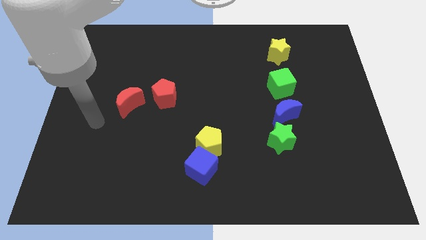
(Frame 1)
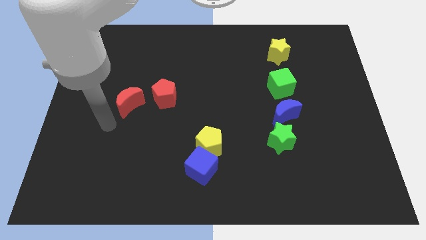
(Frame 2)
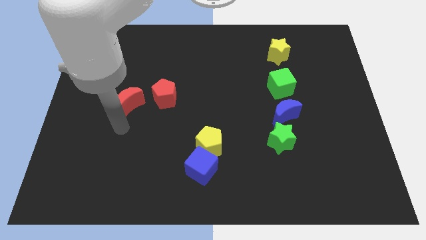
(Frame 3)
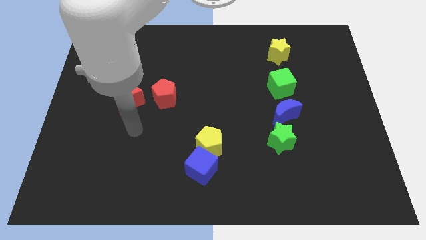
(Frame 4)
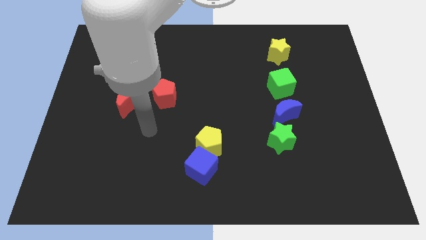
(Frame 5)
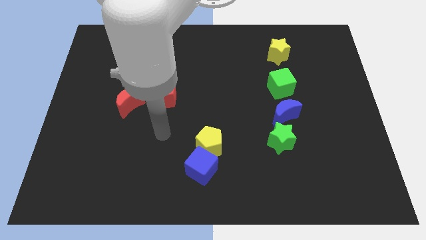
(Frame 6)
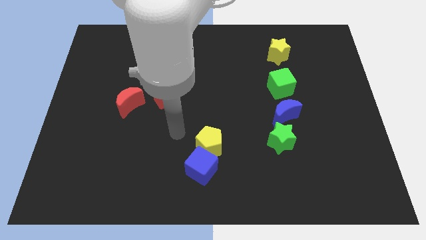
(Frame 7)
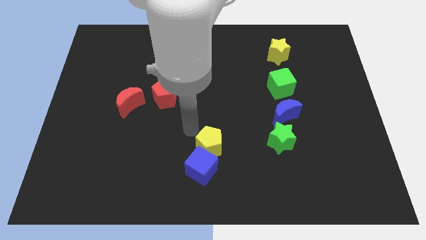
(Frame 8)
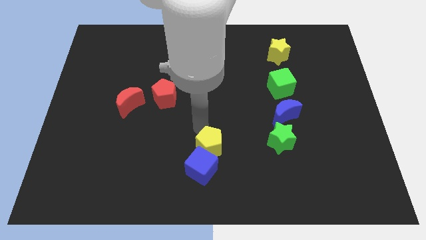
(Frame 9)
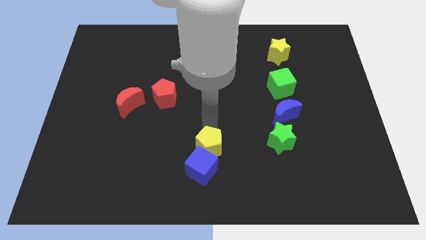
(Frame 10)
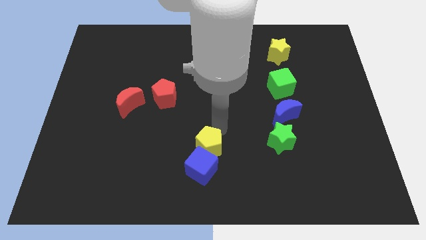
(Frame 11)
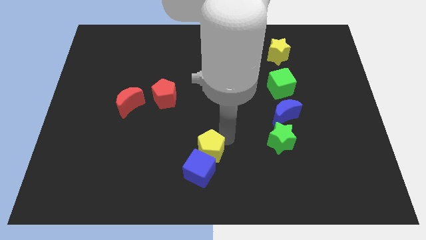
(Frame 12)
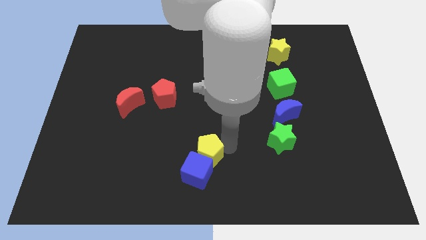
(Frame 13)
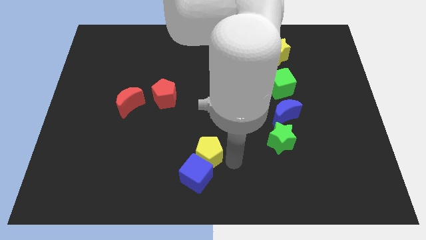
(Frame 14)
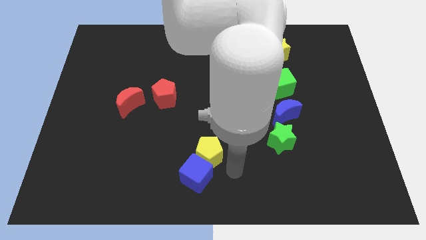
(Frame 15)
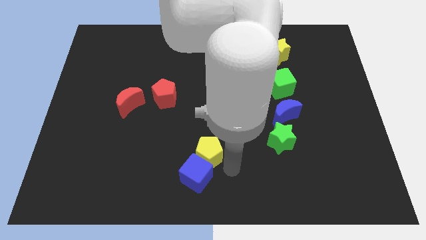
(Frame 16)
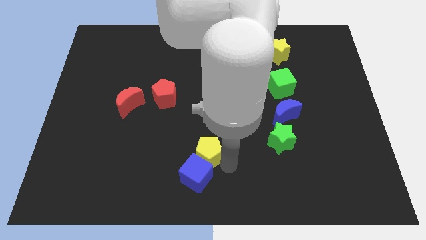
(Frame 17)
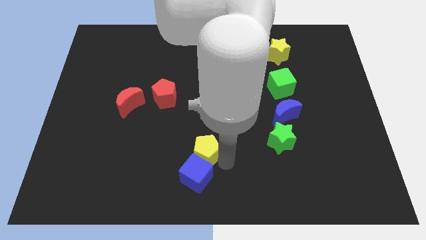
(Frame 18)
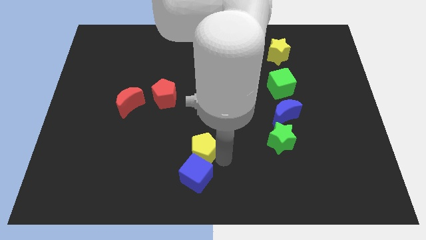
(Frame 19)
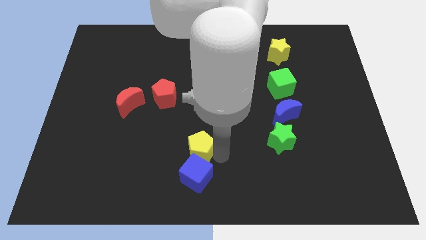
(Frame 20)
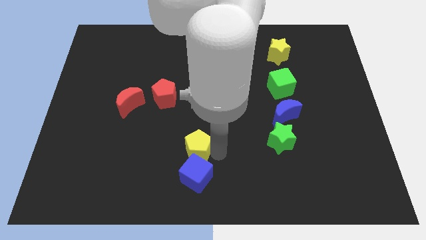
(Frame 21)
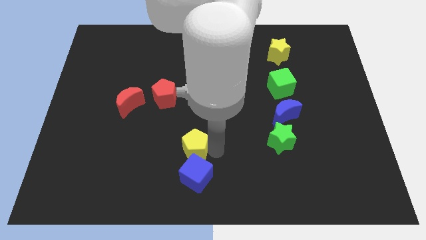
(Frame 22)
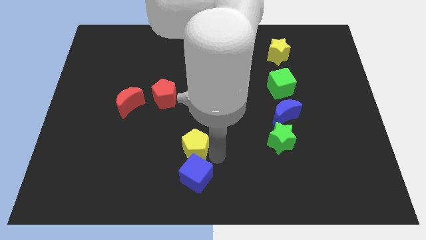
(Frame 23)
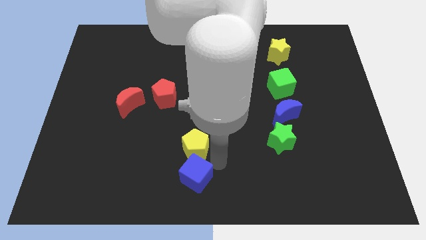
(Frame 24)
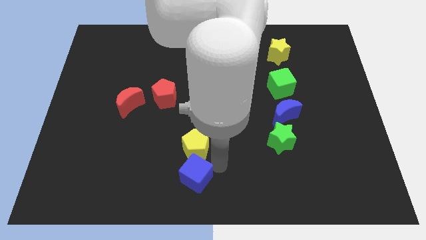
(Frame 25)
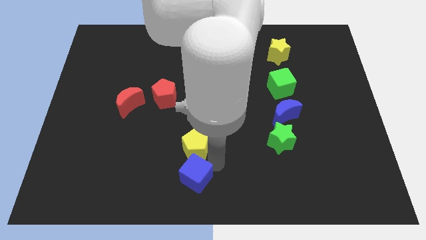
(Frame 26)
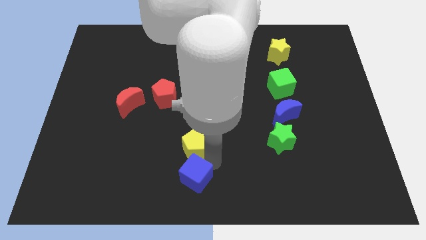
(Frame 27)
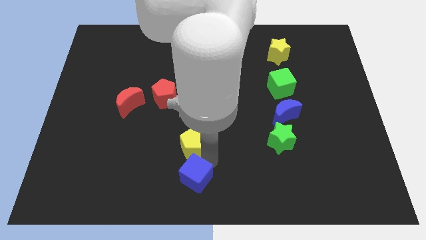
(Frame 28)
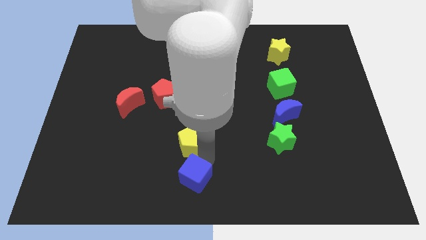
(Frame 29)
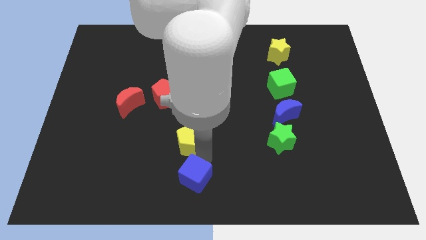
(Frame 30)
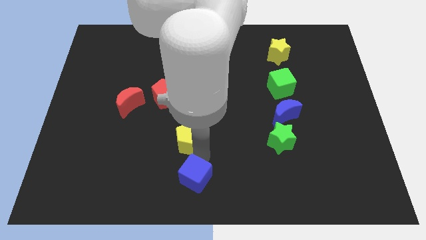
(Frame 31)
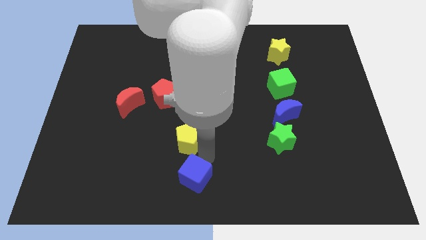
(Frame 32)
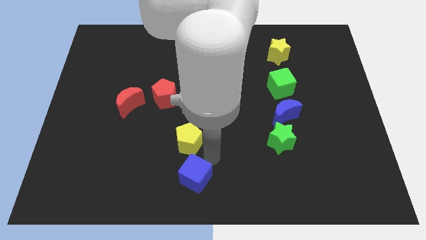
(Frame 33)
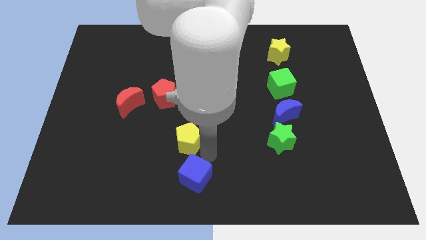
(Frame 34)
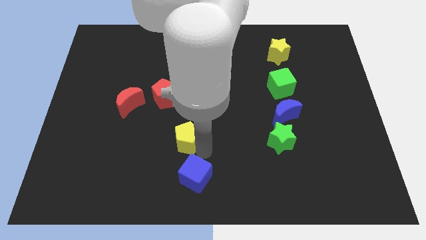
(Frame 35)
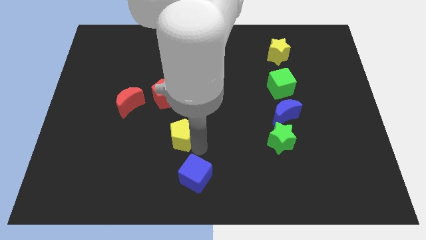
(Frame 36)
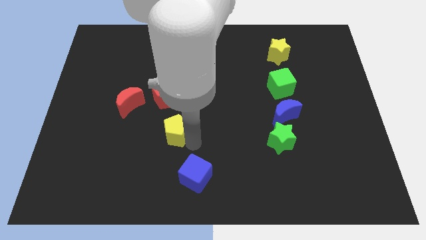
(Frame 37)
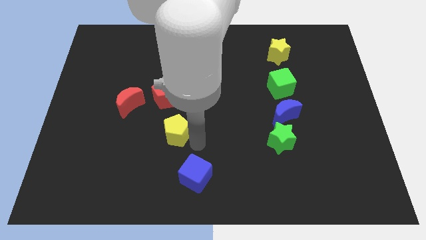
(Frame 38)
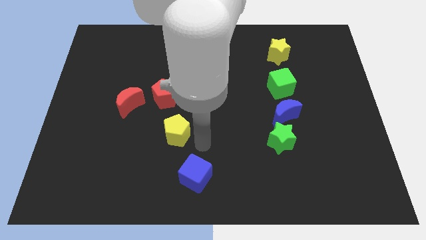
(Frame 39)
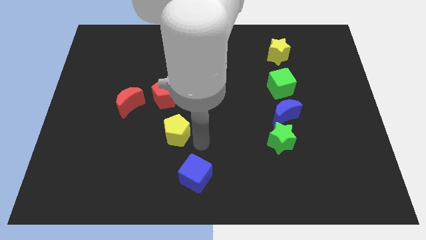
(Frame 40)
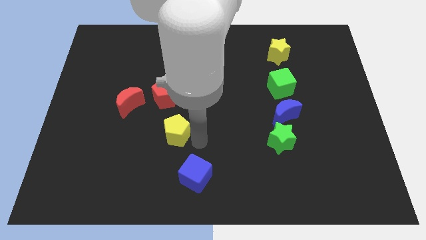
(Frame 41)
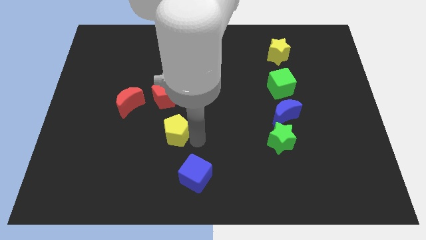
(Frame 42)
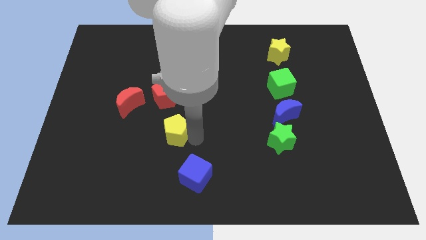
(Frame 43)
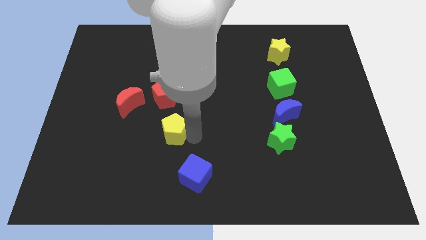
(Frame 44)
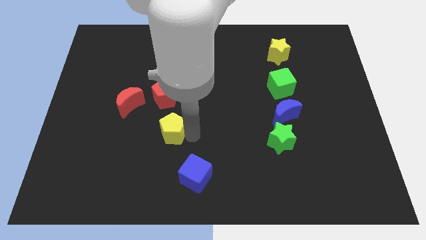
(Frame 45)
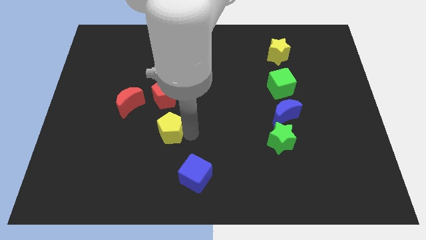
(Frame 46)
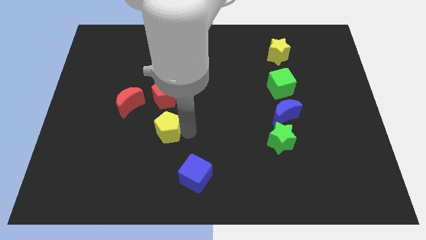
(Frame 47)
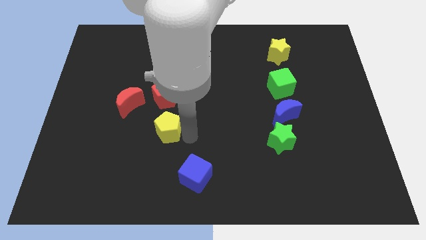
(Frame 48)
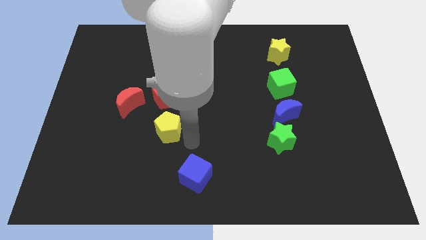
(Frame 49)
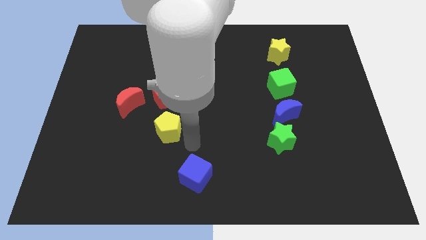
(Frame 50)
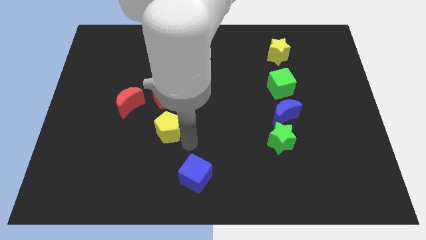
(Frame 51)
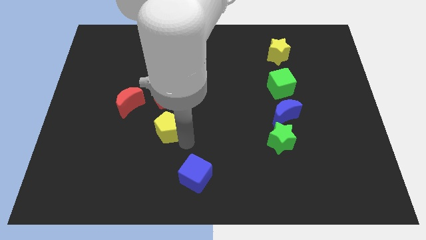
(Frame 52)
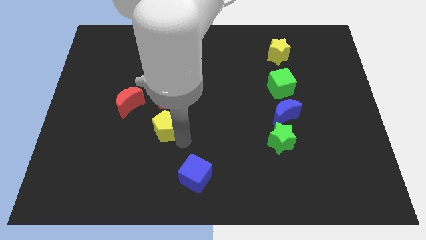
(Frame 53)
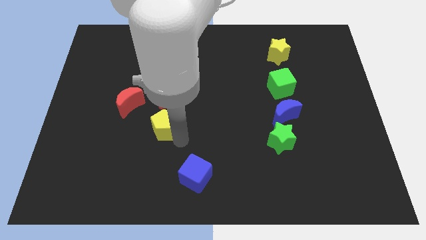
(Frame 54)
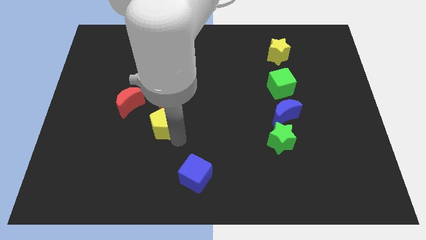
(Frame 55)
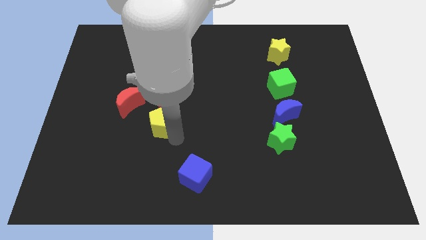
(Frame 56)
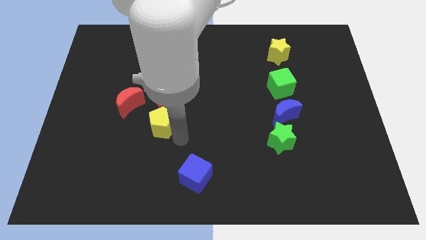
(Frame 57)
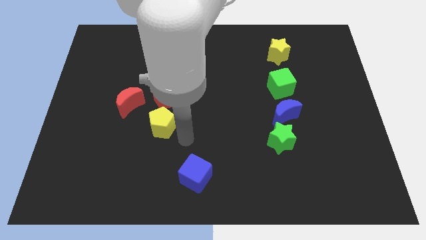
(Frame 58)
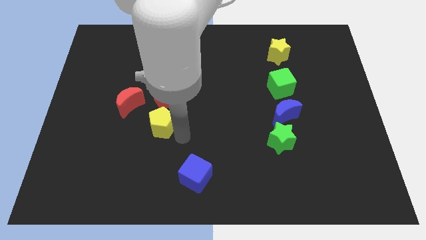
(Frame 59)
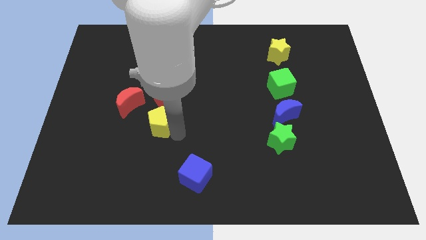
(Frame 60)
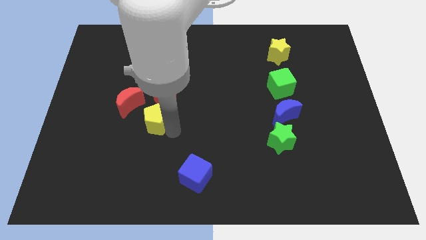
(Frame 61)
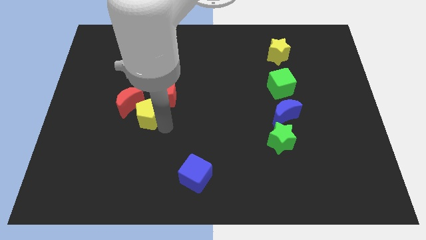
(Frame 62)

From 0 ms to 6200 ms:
slide the yellow pentagon to the red moon

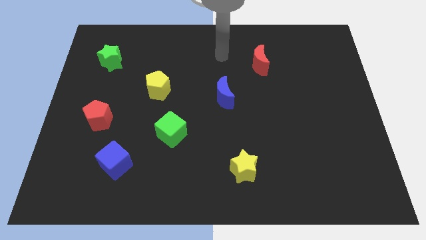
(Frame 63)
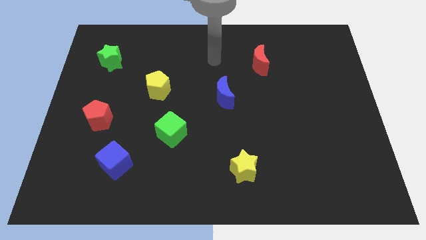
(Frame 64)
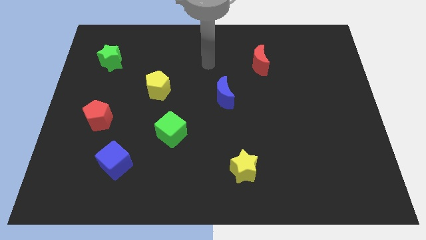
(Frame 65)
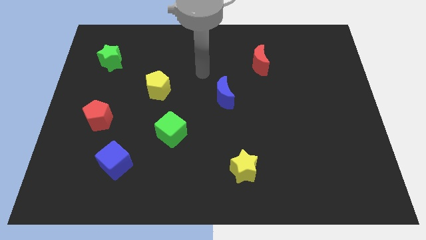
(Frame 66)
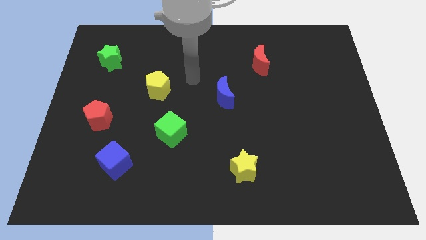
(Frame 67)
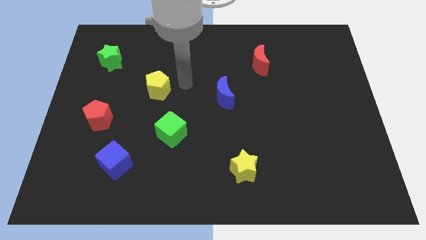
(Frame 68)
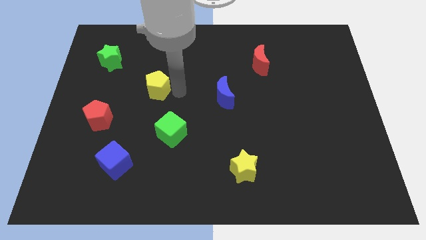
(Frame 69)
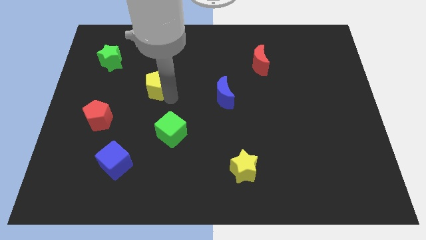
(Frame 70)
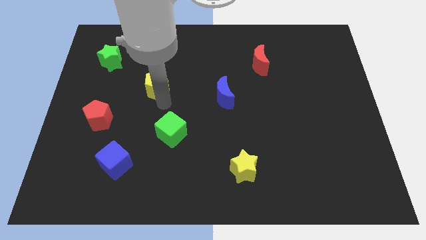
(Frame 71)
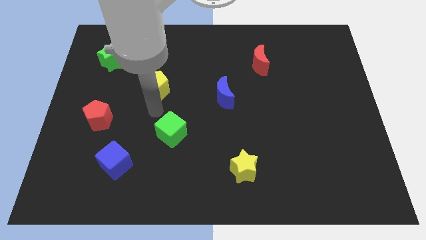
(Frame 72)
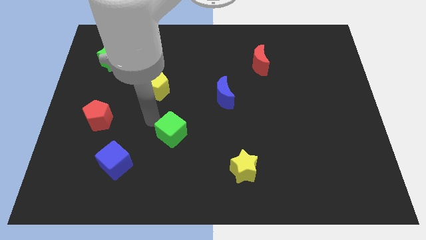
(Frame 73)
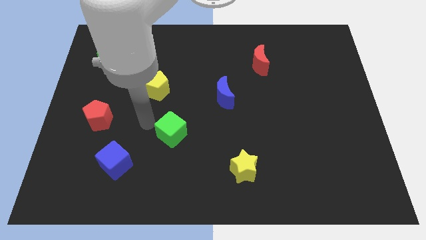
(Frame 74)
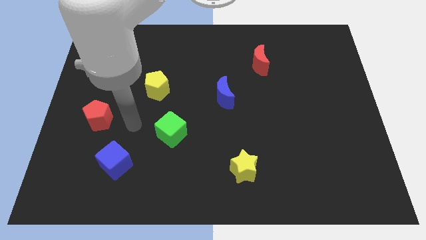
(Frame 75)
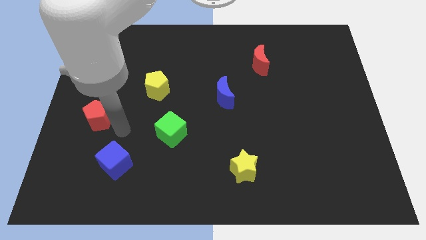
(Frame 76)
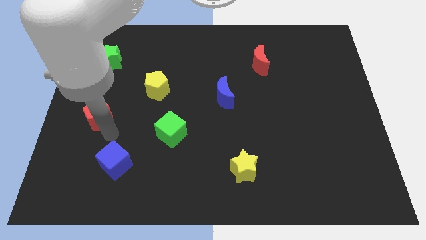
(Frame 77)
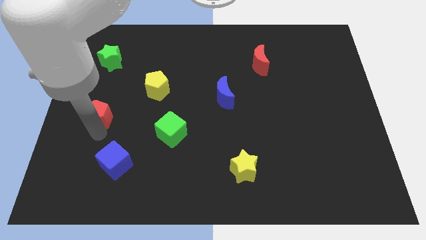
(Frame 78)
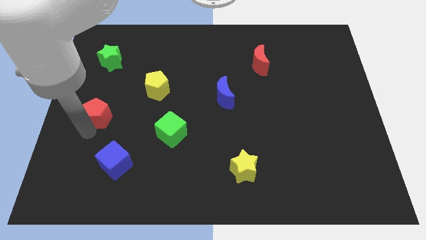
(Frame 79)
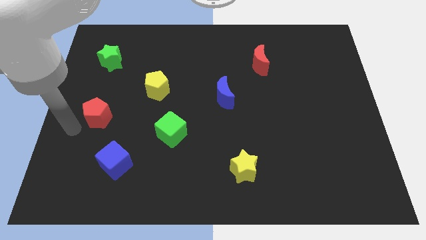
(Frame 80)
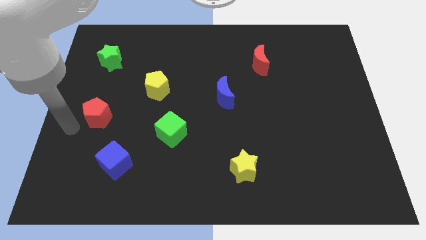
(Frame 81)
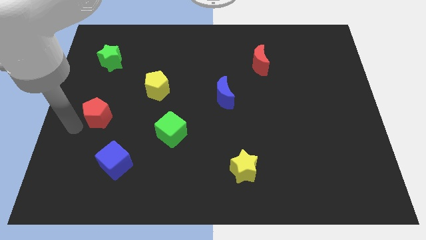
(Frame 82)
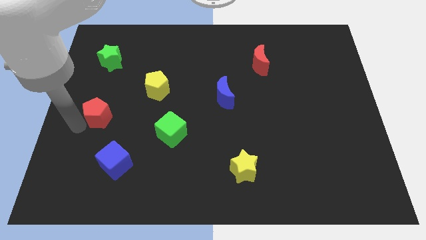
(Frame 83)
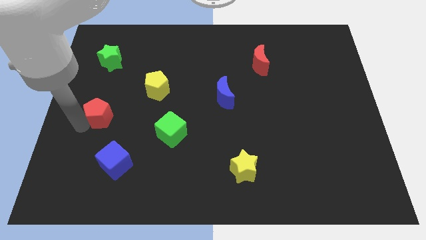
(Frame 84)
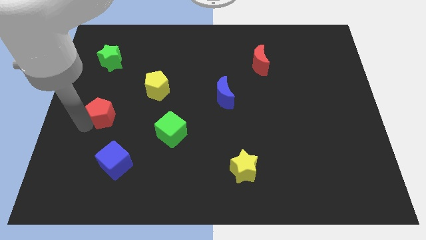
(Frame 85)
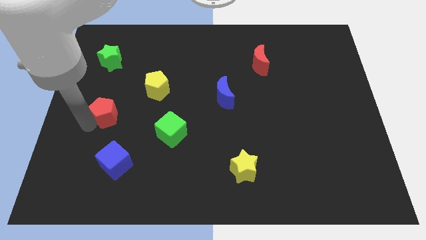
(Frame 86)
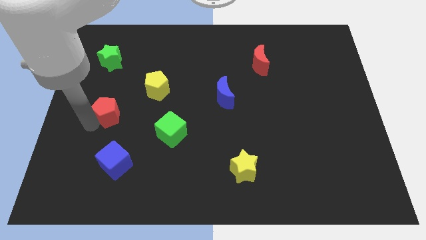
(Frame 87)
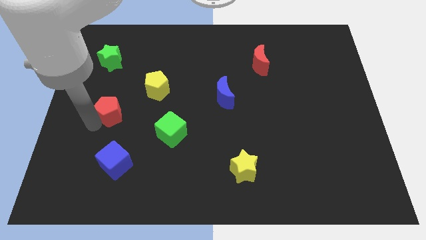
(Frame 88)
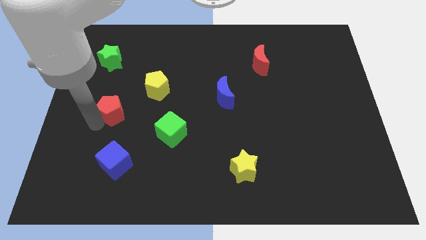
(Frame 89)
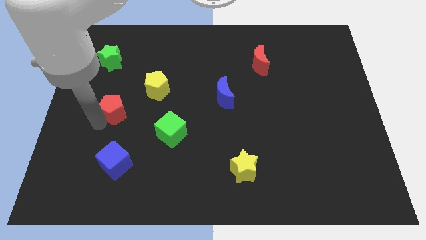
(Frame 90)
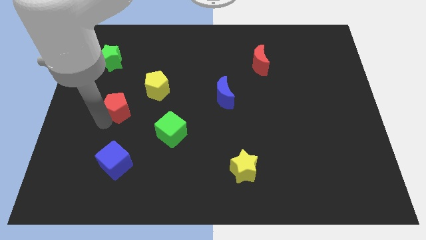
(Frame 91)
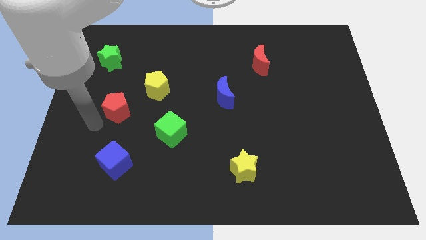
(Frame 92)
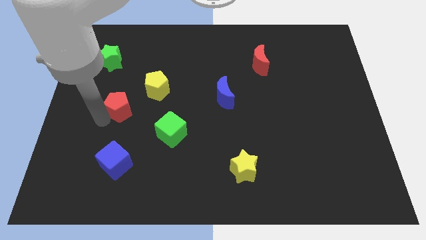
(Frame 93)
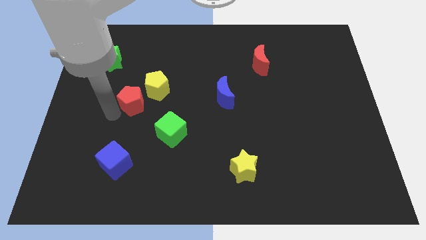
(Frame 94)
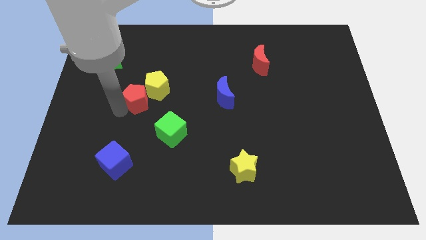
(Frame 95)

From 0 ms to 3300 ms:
move the red pentagon close to the yellow pentagon
